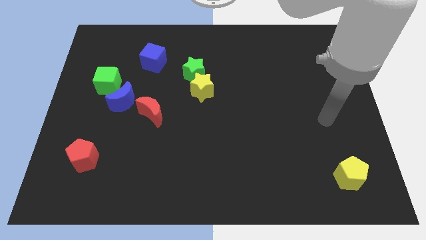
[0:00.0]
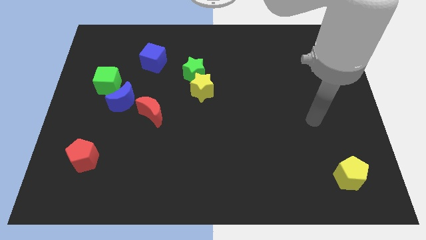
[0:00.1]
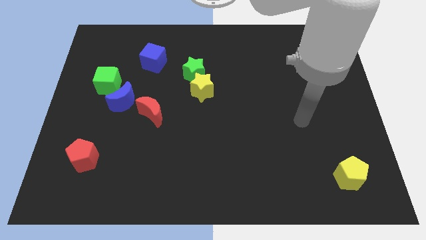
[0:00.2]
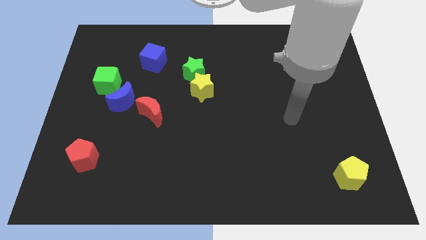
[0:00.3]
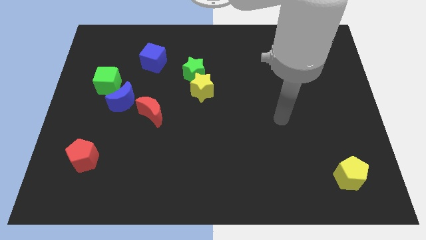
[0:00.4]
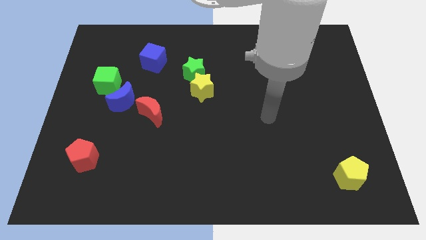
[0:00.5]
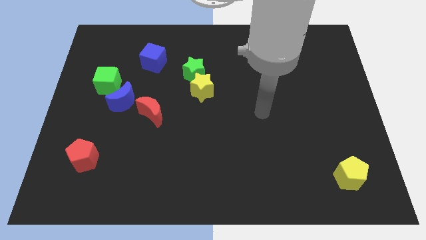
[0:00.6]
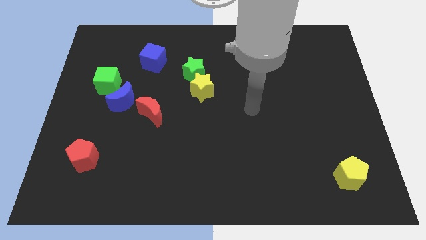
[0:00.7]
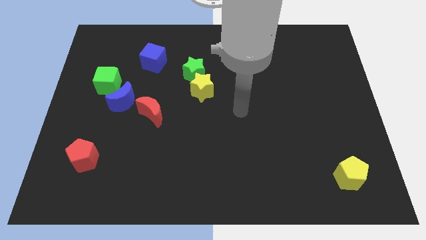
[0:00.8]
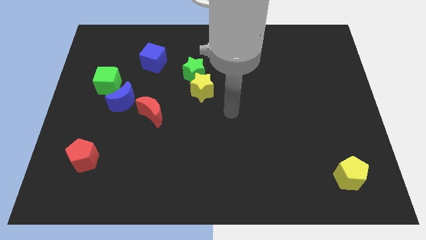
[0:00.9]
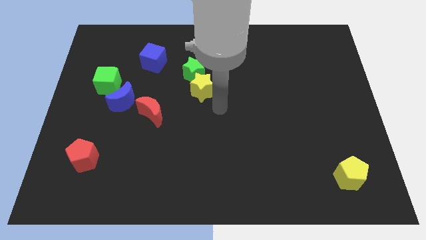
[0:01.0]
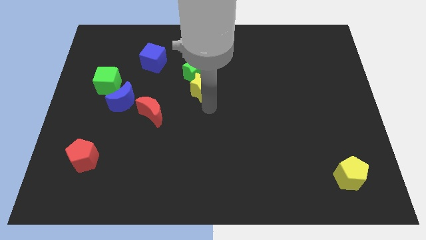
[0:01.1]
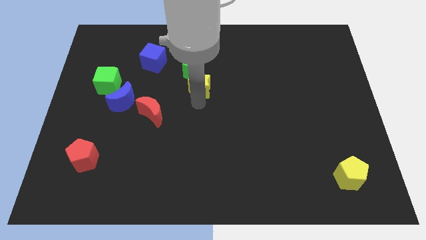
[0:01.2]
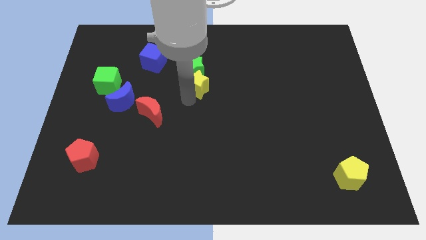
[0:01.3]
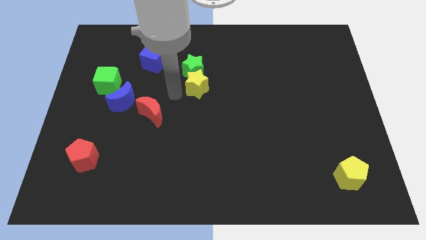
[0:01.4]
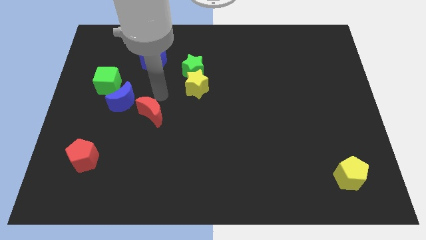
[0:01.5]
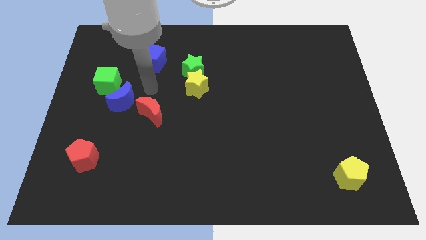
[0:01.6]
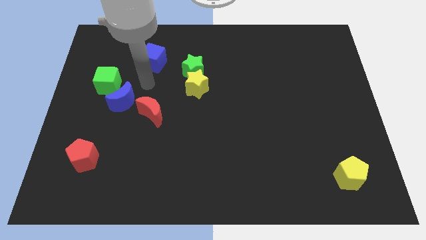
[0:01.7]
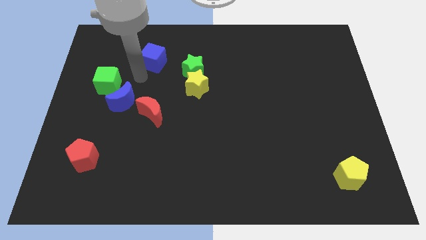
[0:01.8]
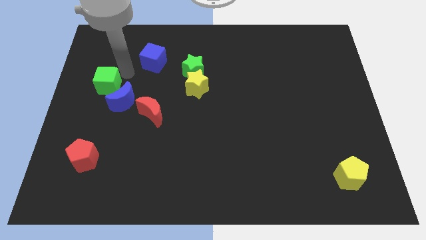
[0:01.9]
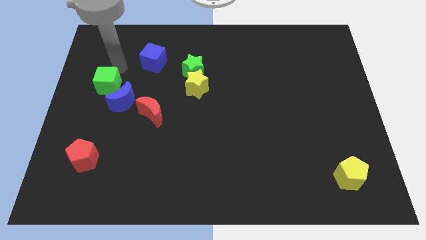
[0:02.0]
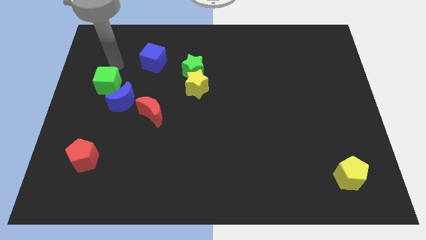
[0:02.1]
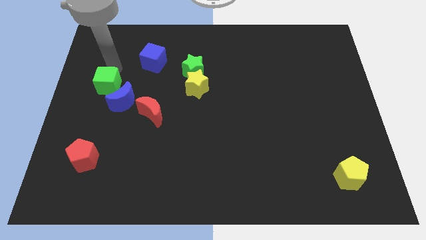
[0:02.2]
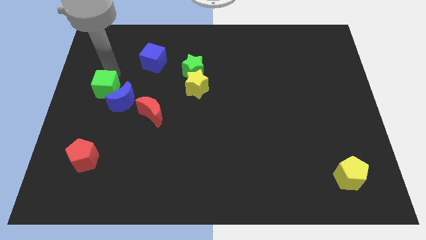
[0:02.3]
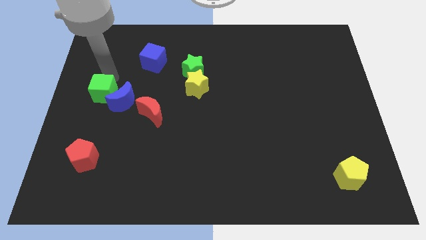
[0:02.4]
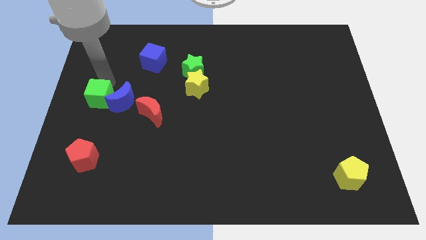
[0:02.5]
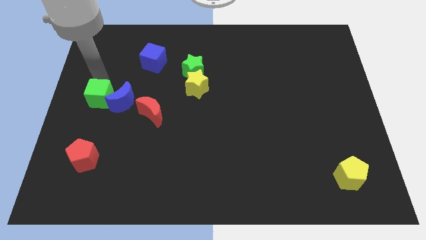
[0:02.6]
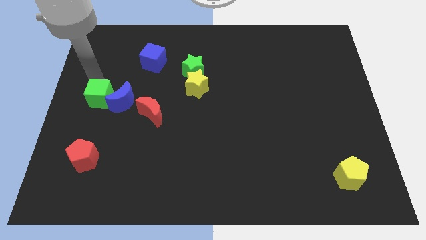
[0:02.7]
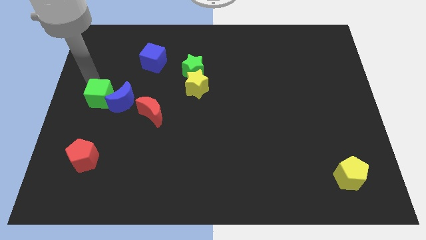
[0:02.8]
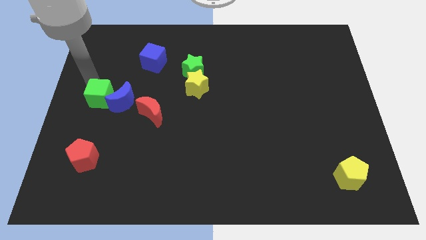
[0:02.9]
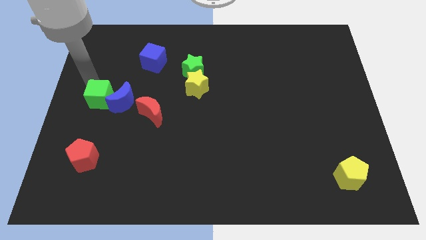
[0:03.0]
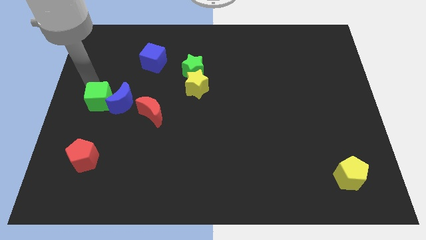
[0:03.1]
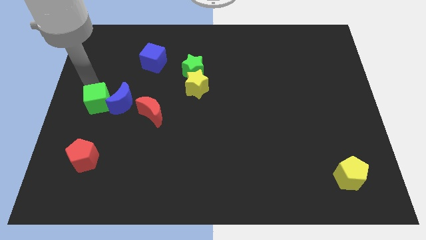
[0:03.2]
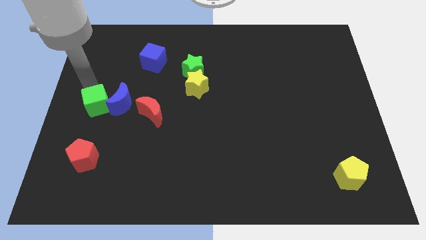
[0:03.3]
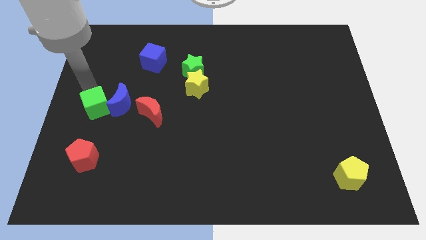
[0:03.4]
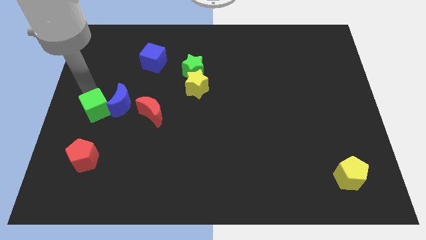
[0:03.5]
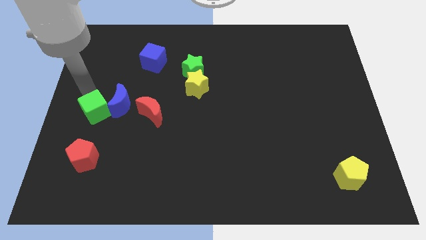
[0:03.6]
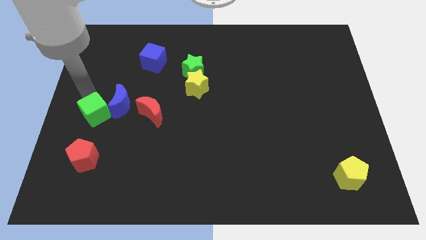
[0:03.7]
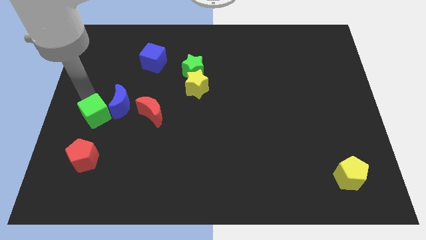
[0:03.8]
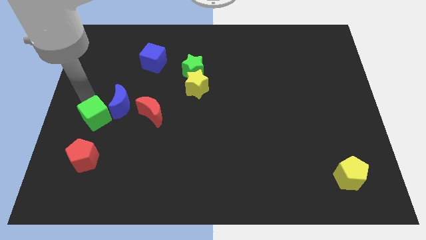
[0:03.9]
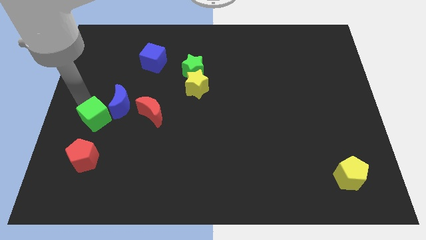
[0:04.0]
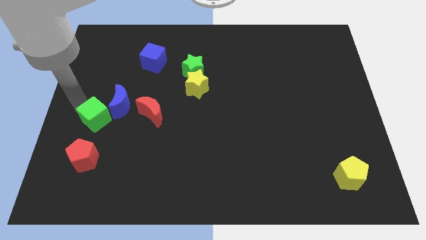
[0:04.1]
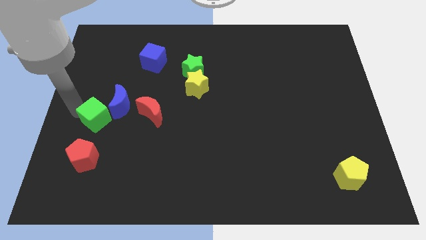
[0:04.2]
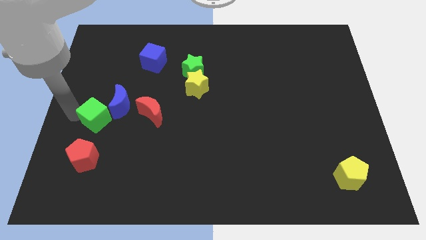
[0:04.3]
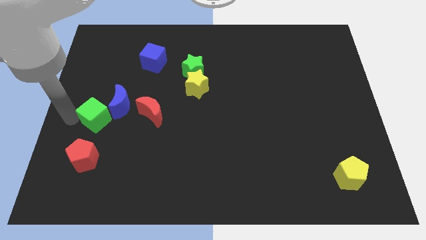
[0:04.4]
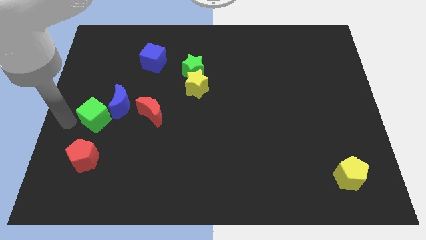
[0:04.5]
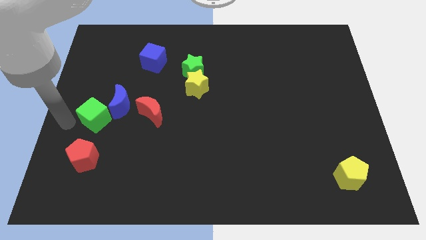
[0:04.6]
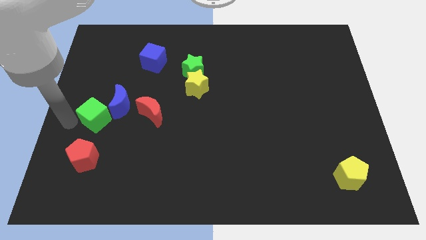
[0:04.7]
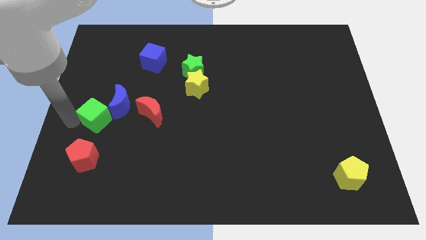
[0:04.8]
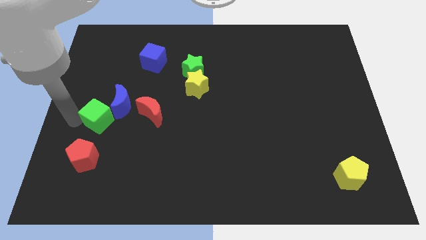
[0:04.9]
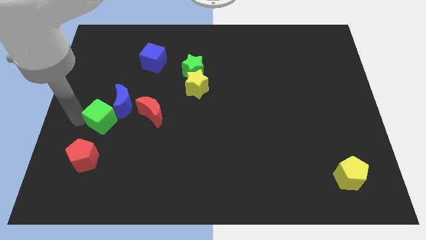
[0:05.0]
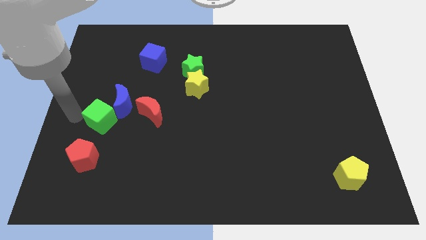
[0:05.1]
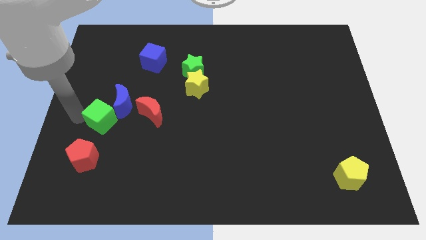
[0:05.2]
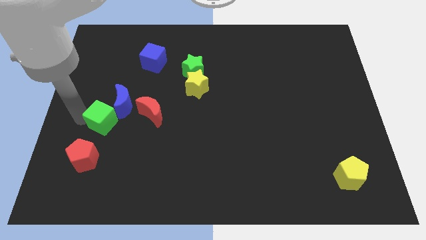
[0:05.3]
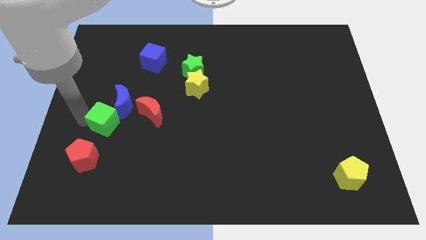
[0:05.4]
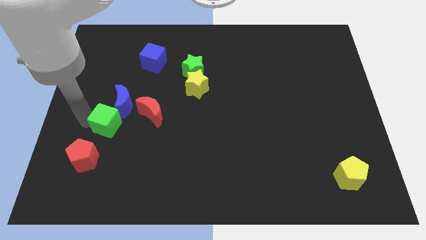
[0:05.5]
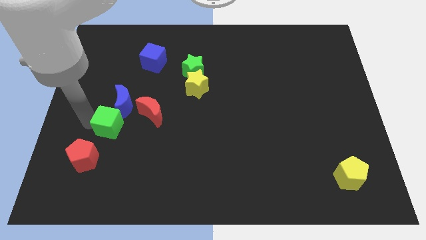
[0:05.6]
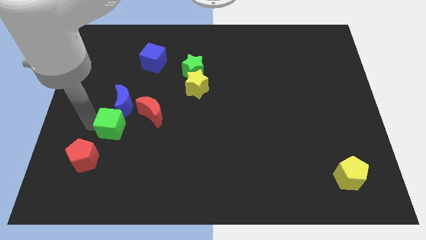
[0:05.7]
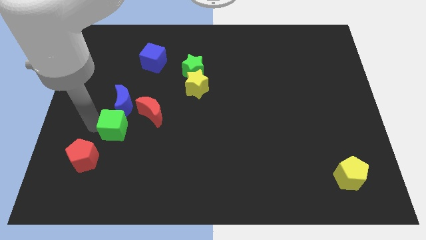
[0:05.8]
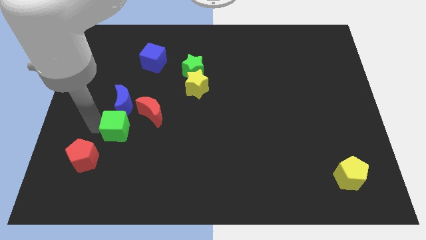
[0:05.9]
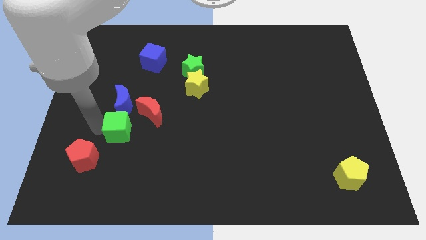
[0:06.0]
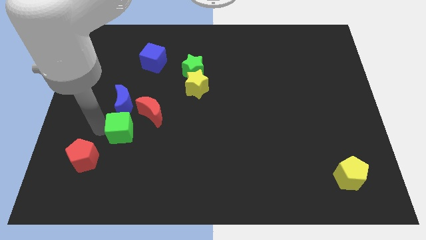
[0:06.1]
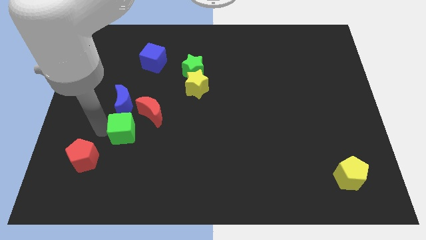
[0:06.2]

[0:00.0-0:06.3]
put the green cube to the bottom right side of the blue moon

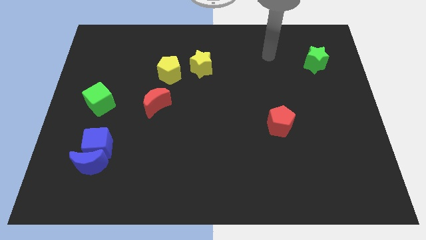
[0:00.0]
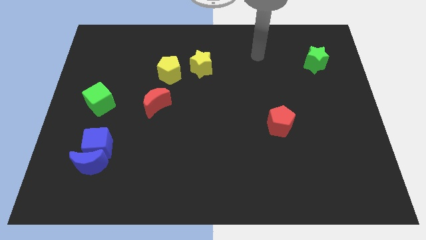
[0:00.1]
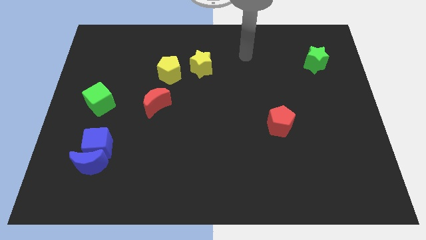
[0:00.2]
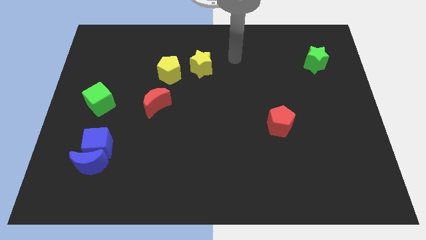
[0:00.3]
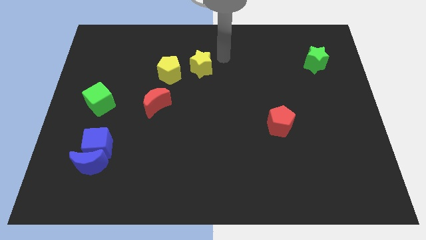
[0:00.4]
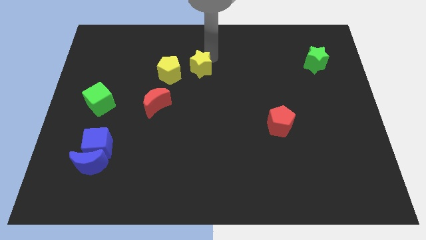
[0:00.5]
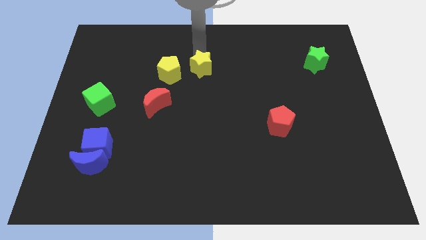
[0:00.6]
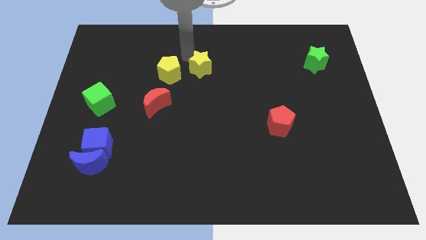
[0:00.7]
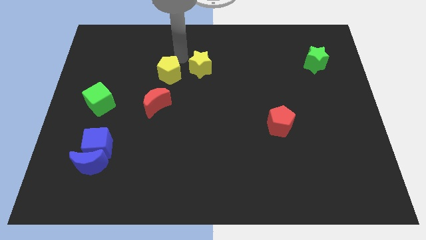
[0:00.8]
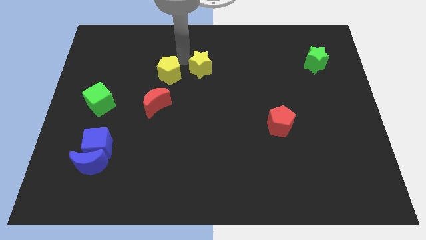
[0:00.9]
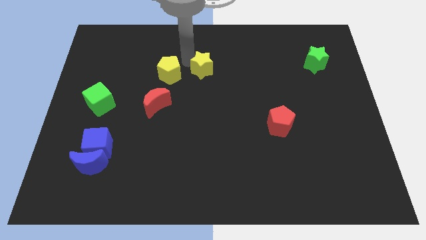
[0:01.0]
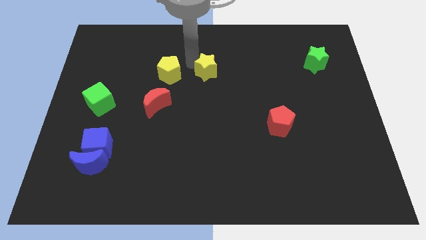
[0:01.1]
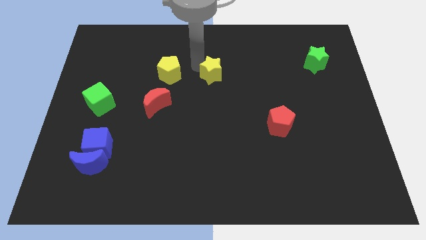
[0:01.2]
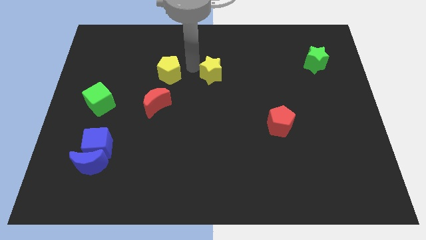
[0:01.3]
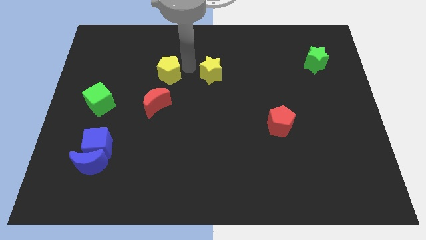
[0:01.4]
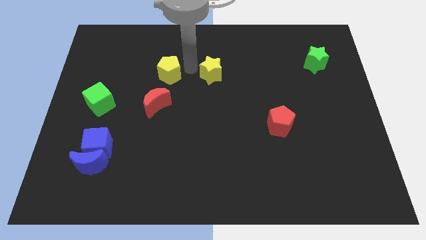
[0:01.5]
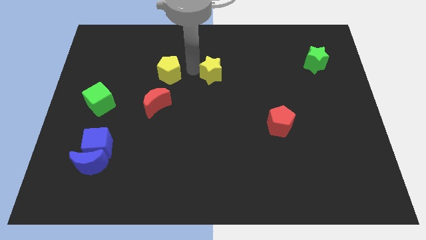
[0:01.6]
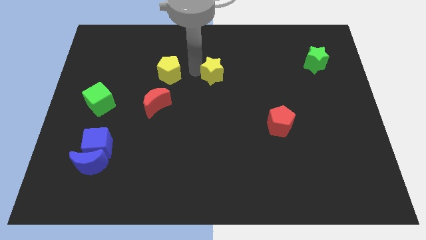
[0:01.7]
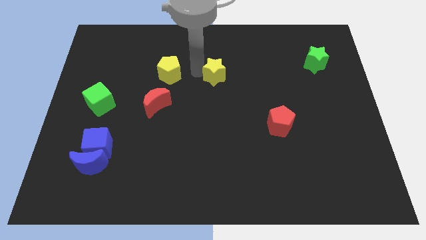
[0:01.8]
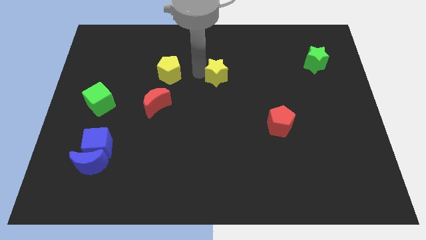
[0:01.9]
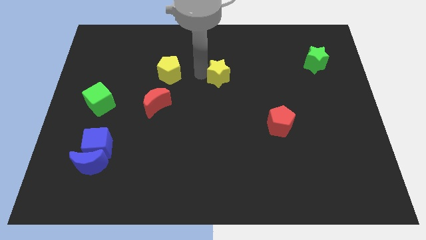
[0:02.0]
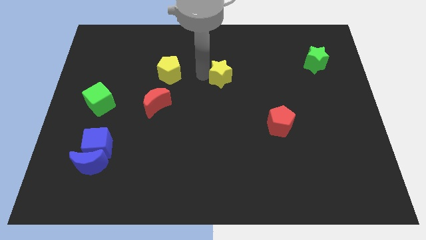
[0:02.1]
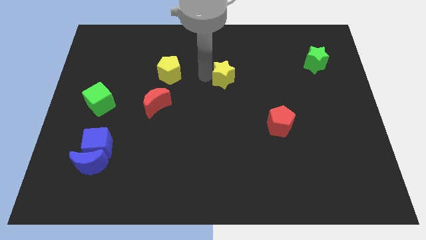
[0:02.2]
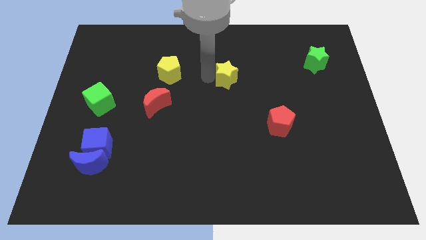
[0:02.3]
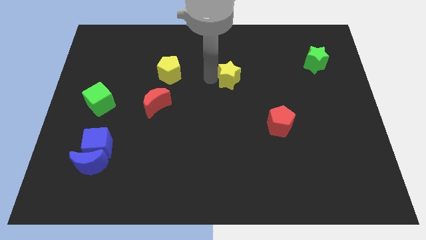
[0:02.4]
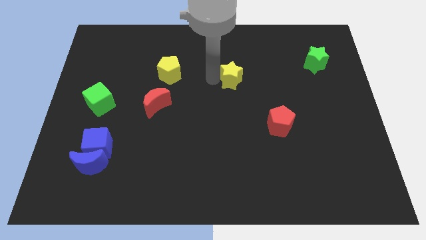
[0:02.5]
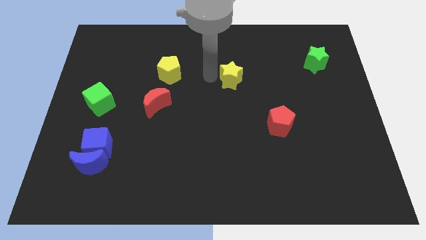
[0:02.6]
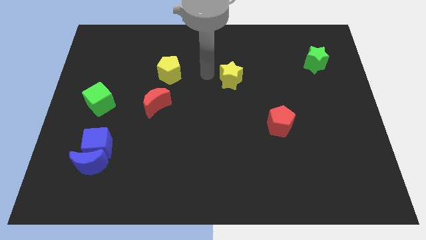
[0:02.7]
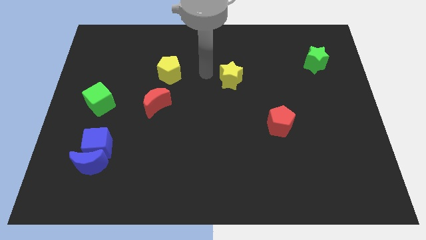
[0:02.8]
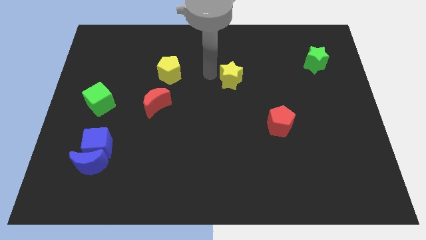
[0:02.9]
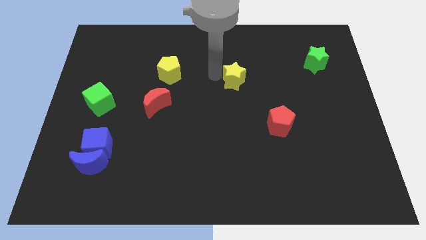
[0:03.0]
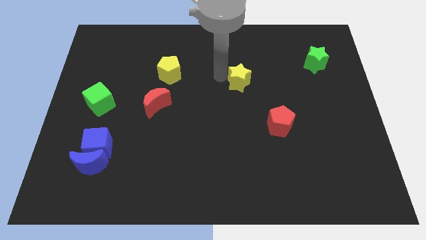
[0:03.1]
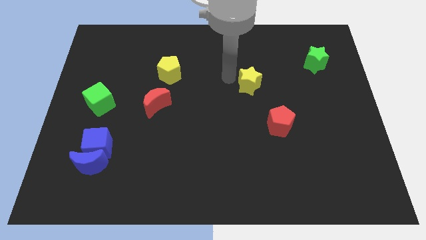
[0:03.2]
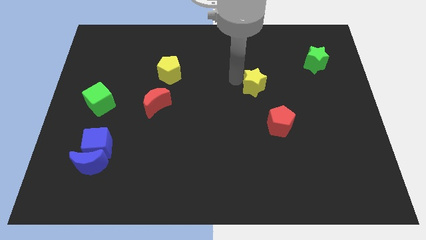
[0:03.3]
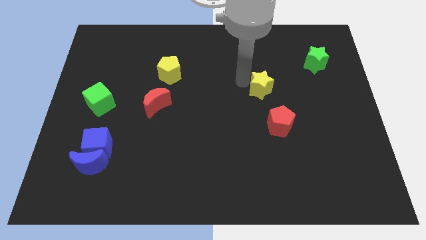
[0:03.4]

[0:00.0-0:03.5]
slide the yellow star to the top side of the red pentagon
